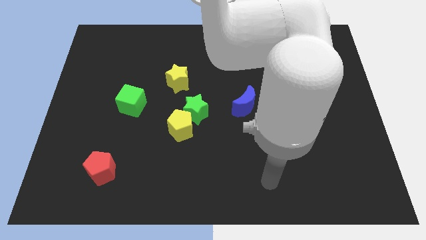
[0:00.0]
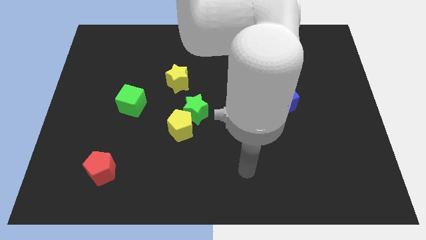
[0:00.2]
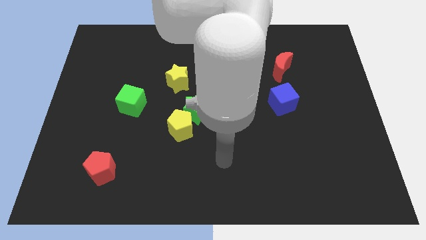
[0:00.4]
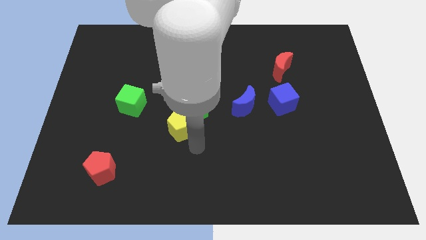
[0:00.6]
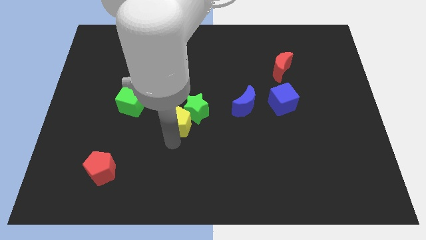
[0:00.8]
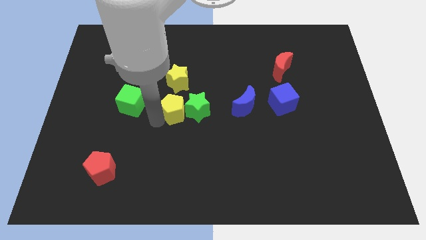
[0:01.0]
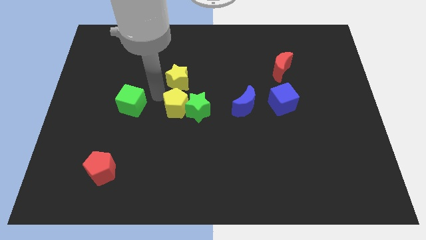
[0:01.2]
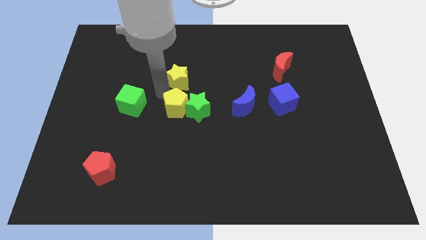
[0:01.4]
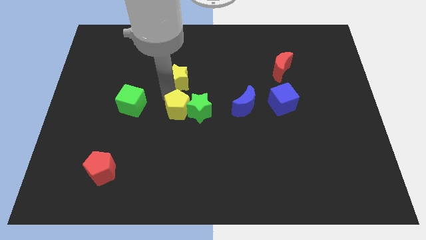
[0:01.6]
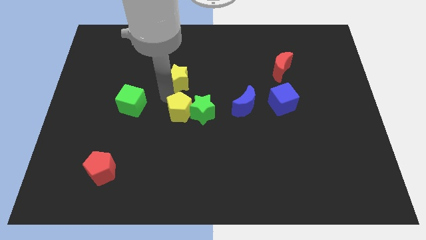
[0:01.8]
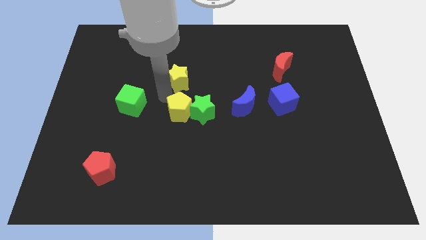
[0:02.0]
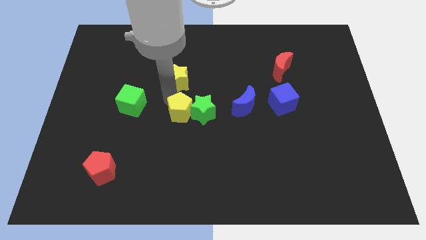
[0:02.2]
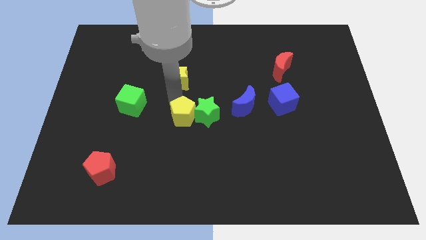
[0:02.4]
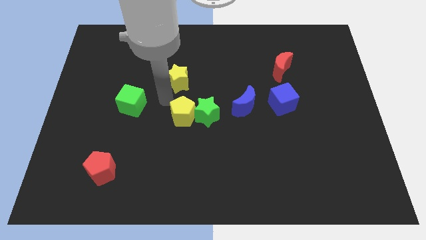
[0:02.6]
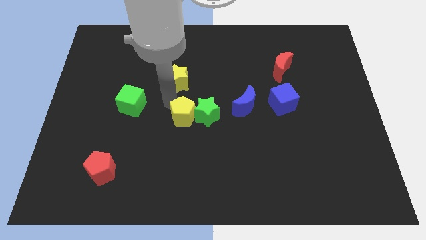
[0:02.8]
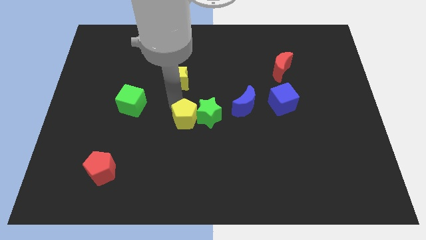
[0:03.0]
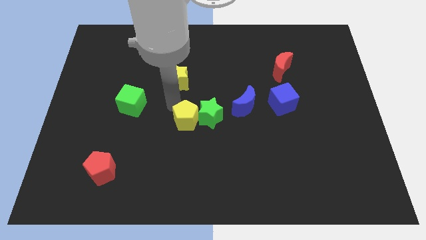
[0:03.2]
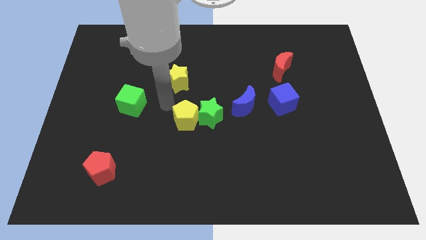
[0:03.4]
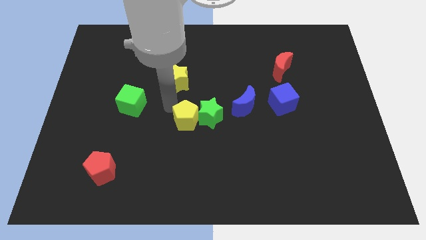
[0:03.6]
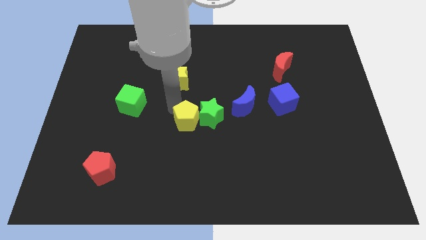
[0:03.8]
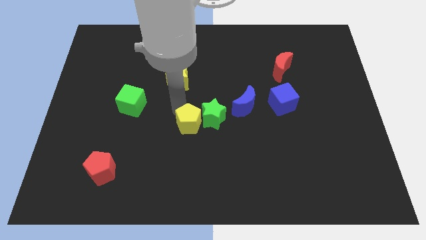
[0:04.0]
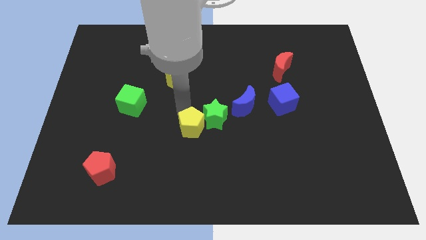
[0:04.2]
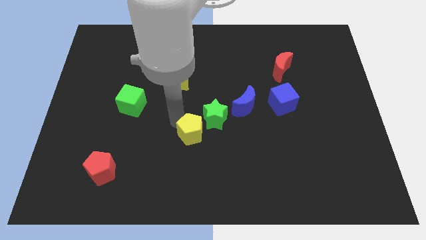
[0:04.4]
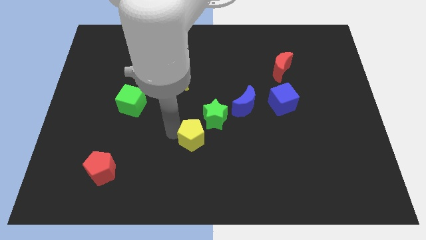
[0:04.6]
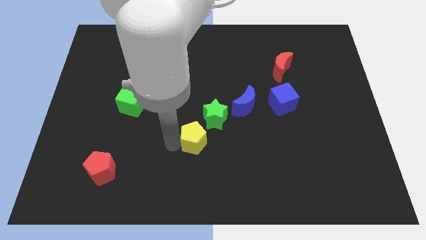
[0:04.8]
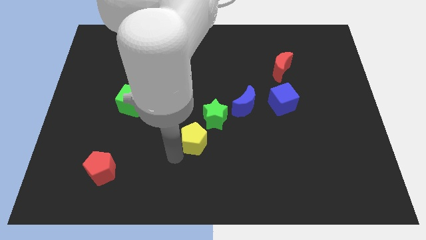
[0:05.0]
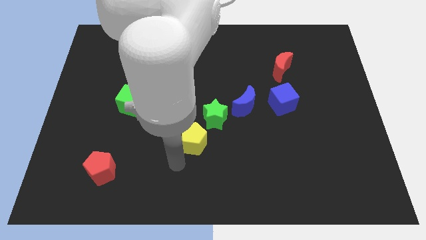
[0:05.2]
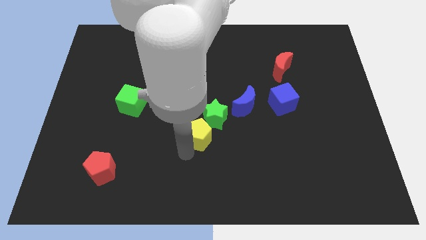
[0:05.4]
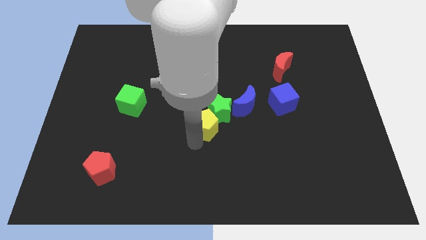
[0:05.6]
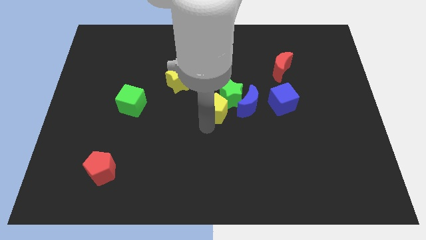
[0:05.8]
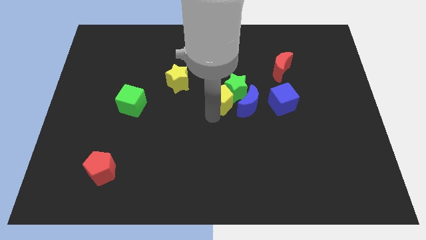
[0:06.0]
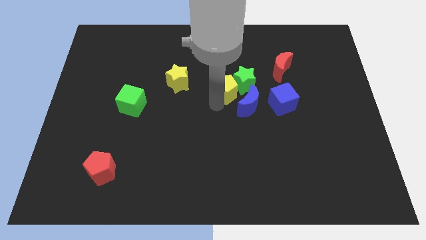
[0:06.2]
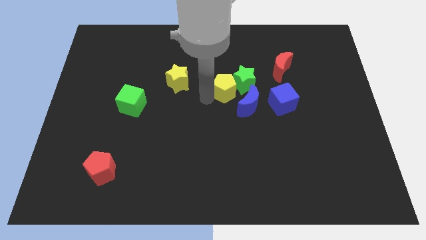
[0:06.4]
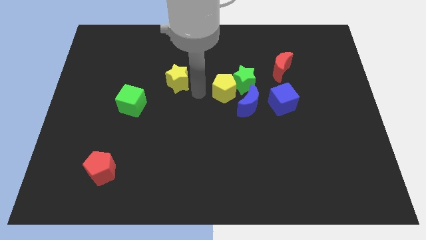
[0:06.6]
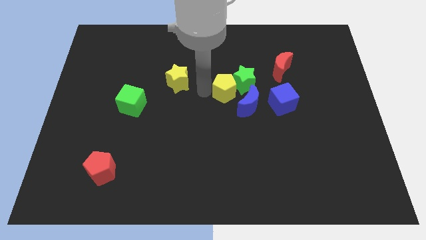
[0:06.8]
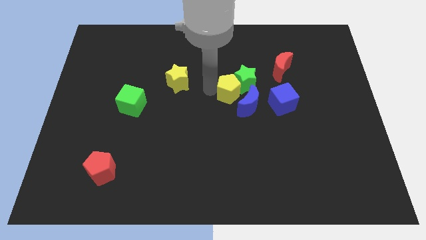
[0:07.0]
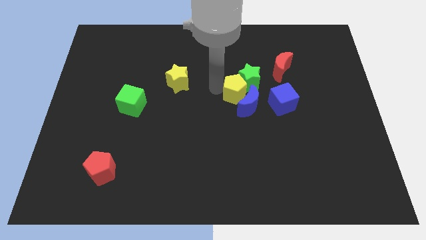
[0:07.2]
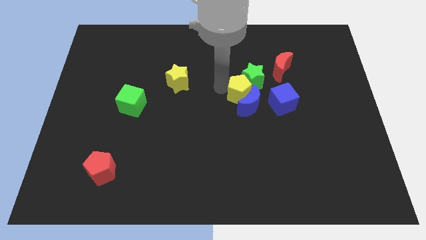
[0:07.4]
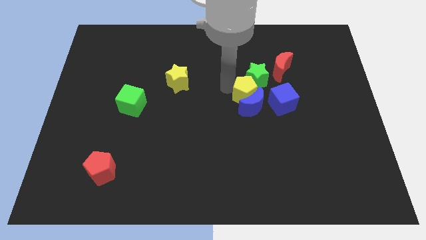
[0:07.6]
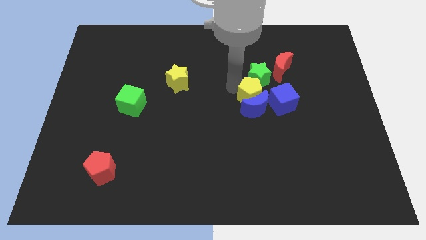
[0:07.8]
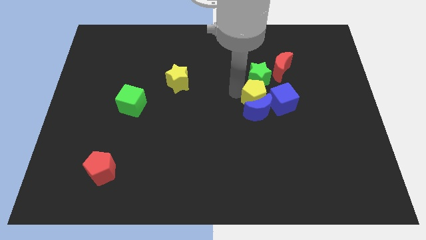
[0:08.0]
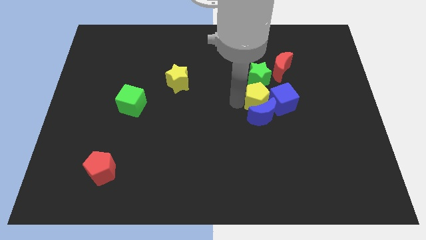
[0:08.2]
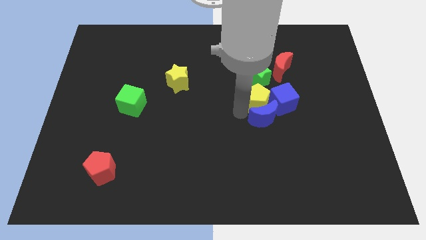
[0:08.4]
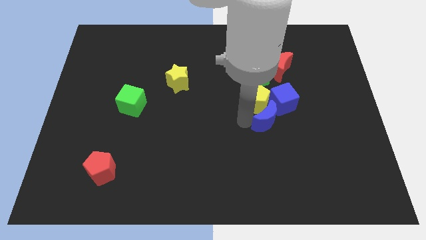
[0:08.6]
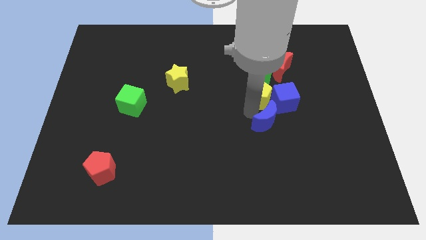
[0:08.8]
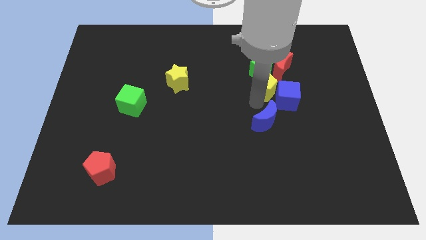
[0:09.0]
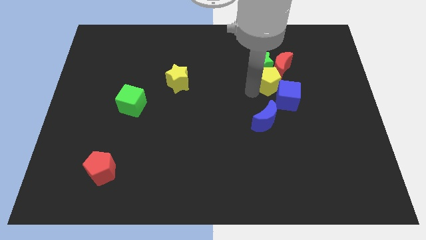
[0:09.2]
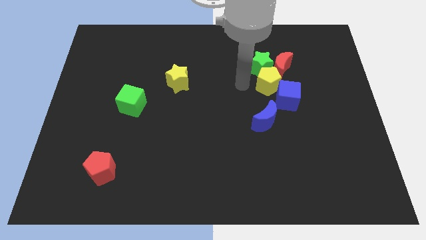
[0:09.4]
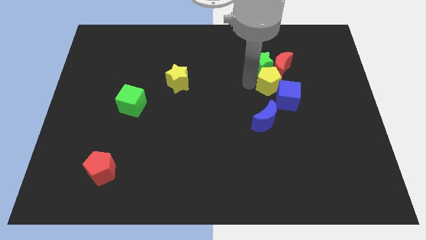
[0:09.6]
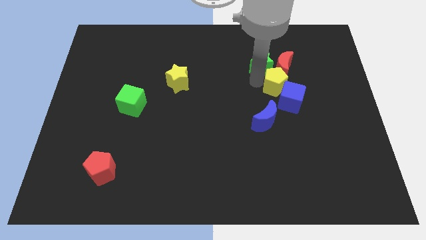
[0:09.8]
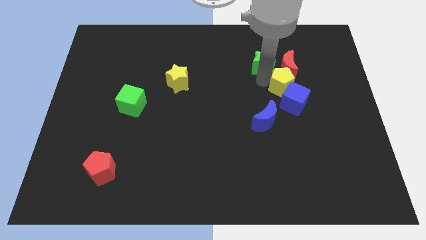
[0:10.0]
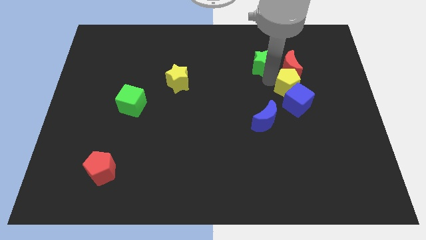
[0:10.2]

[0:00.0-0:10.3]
move the yellow pentagon to the bottom right side of the red moon

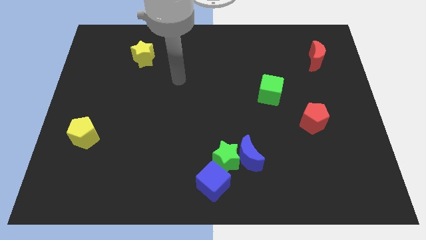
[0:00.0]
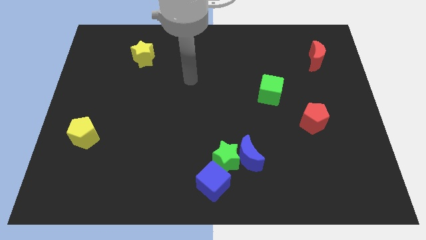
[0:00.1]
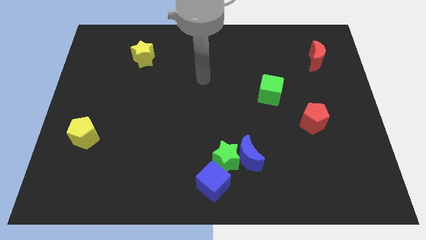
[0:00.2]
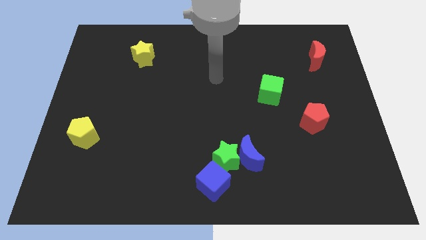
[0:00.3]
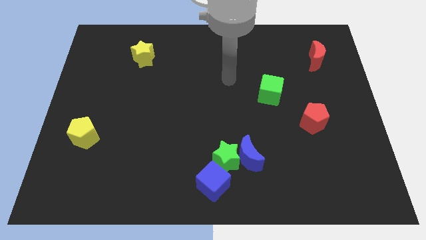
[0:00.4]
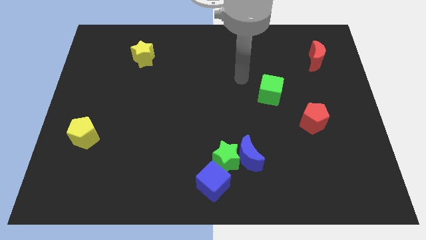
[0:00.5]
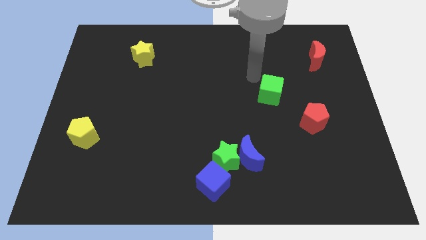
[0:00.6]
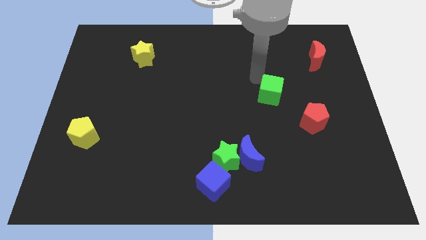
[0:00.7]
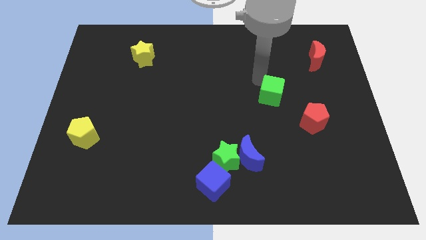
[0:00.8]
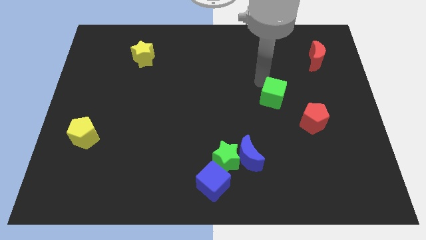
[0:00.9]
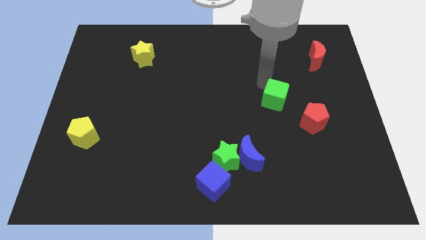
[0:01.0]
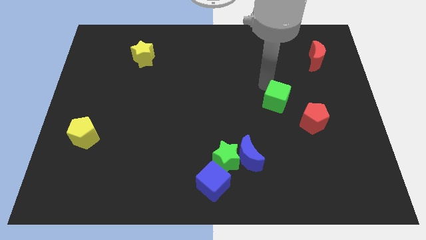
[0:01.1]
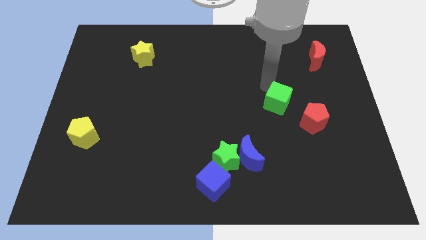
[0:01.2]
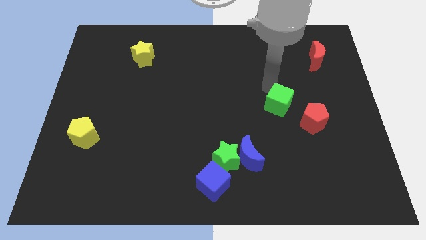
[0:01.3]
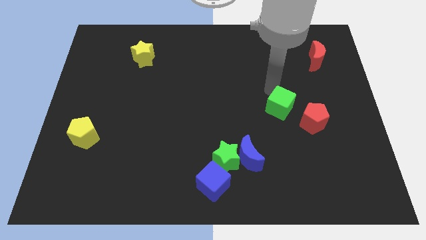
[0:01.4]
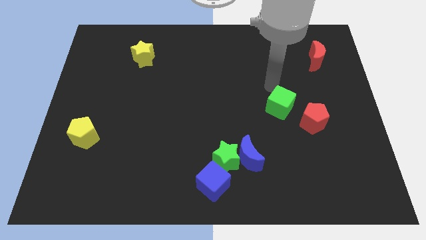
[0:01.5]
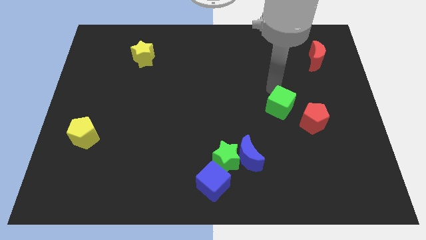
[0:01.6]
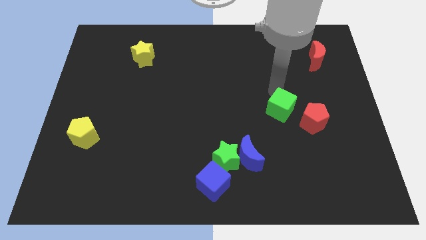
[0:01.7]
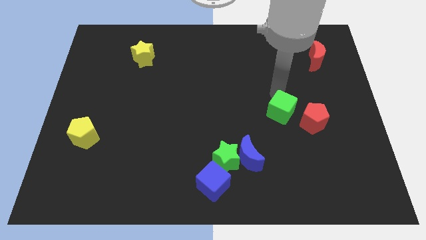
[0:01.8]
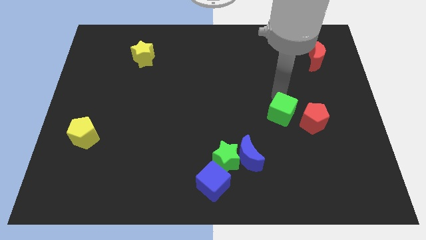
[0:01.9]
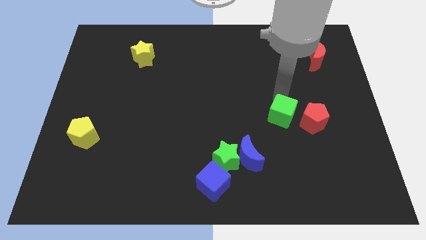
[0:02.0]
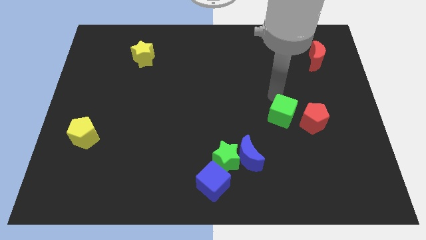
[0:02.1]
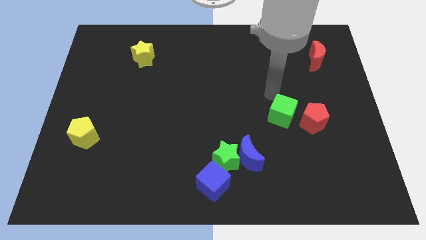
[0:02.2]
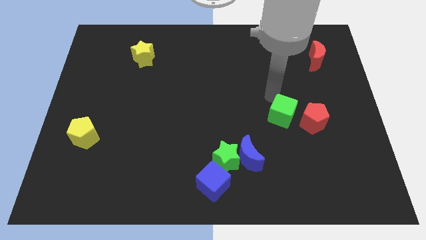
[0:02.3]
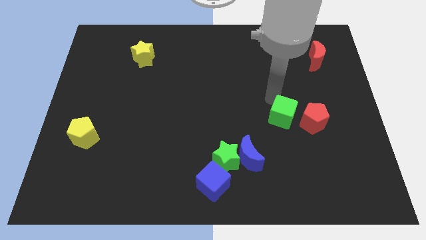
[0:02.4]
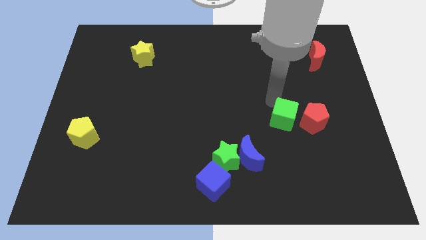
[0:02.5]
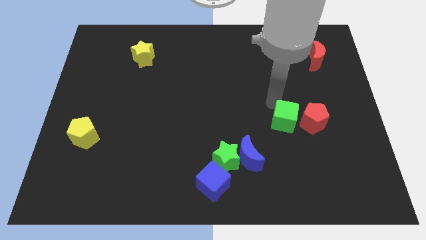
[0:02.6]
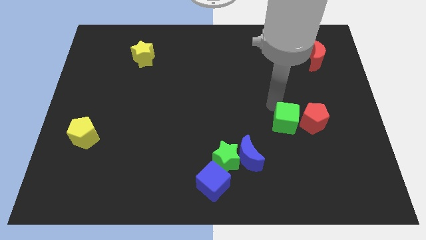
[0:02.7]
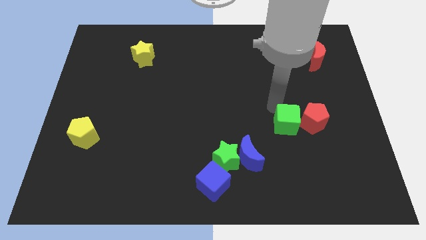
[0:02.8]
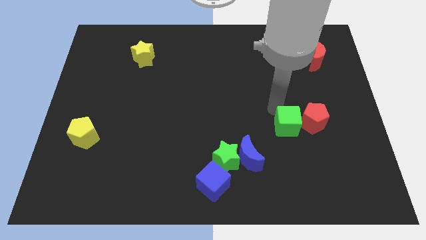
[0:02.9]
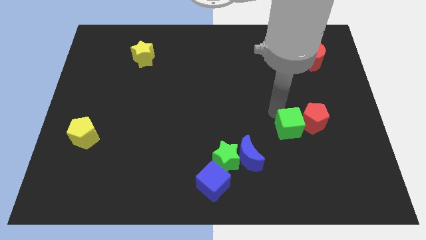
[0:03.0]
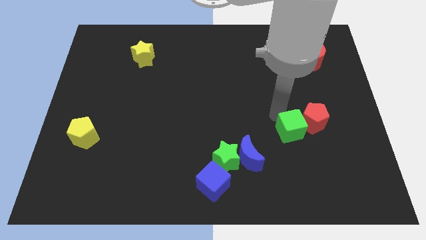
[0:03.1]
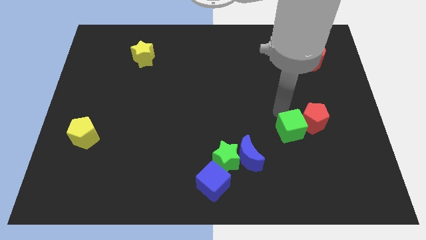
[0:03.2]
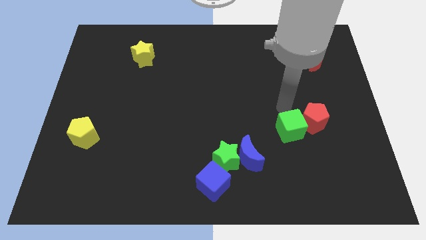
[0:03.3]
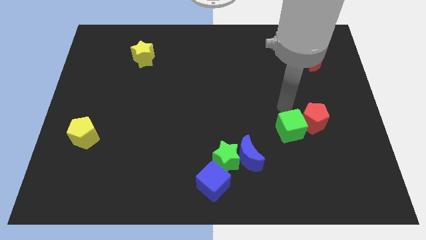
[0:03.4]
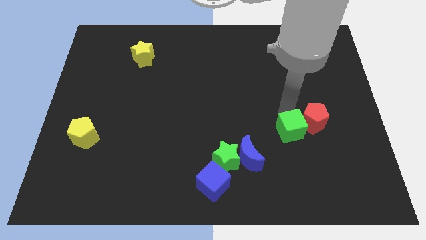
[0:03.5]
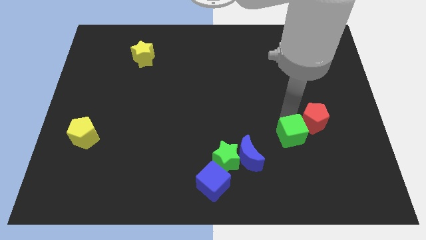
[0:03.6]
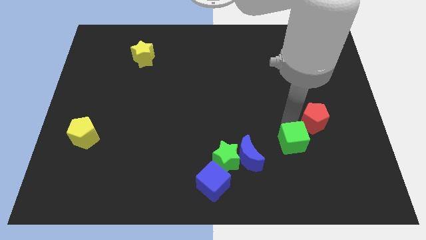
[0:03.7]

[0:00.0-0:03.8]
move the green cube just right of the blue moon
